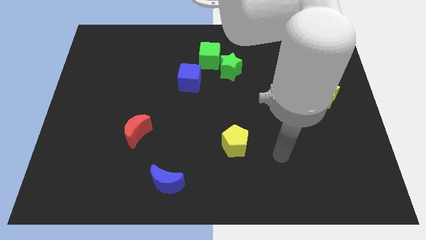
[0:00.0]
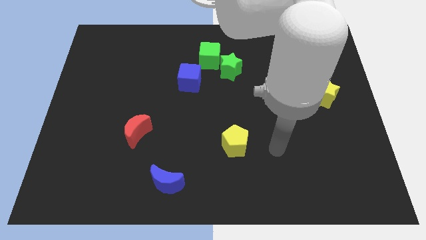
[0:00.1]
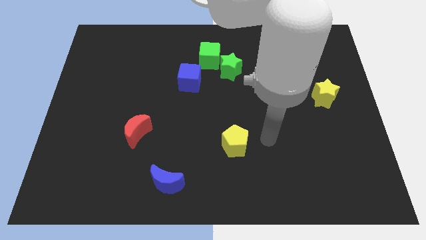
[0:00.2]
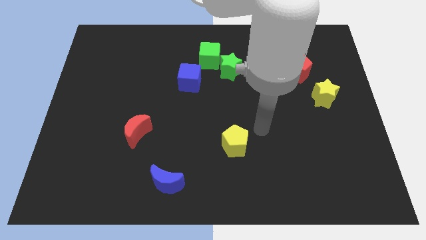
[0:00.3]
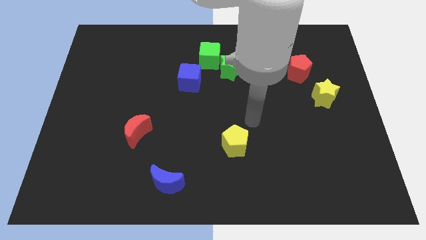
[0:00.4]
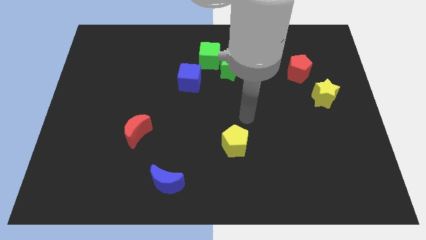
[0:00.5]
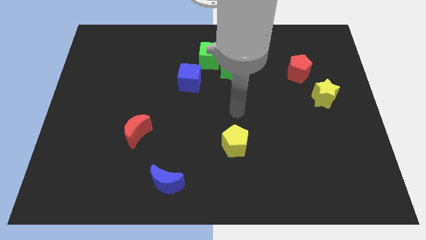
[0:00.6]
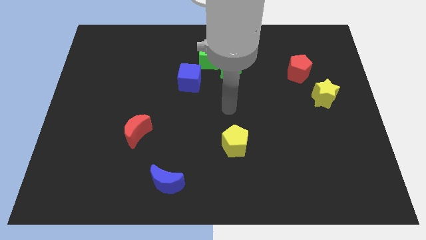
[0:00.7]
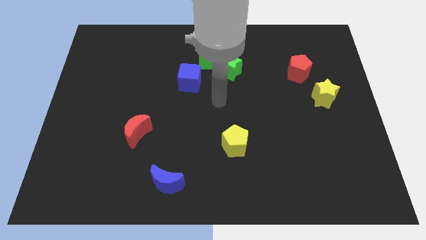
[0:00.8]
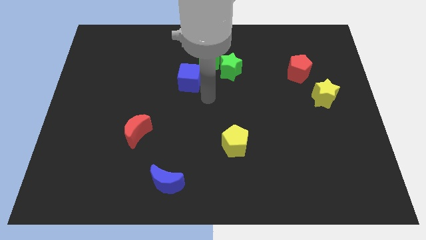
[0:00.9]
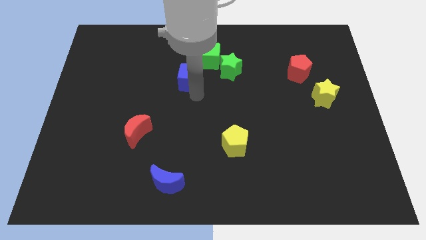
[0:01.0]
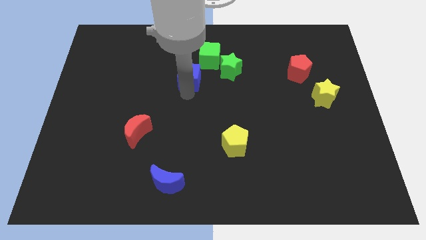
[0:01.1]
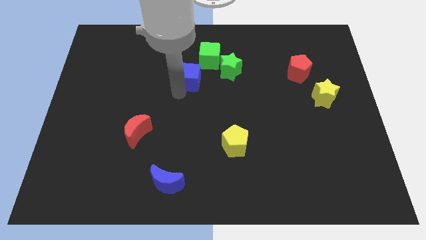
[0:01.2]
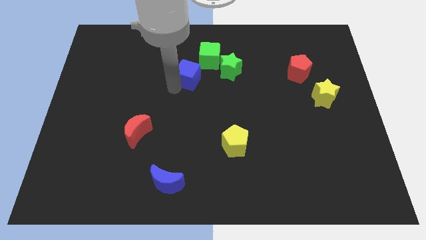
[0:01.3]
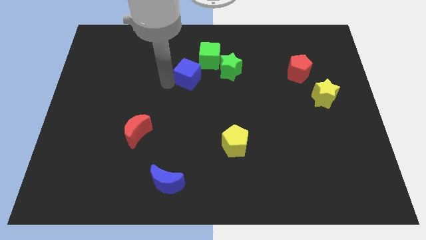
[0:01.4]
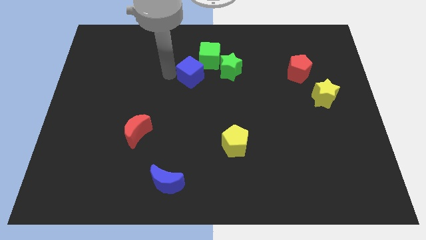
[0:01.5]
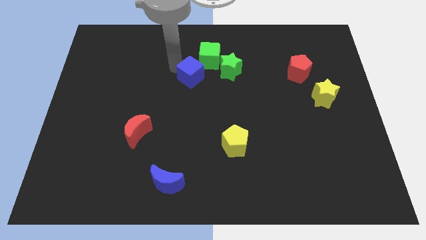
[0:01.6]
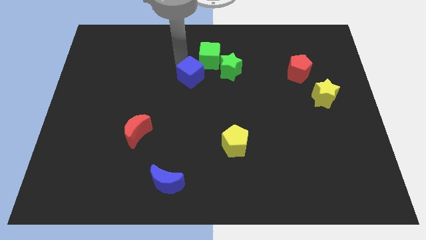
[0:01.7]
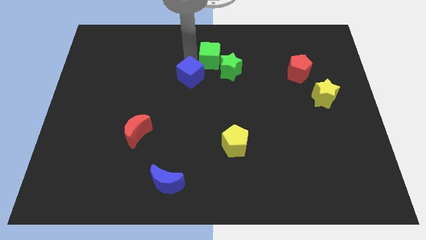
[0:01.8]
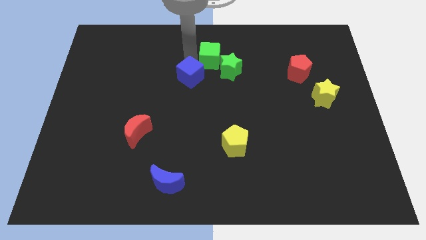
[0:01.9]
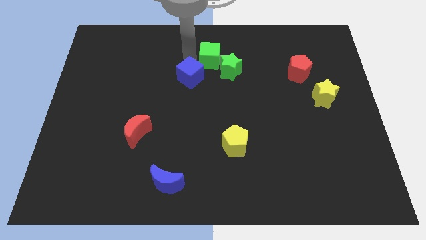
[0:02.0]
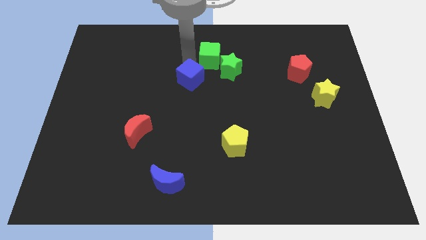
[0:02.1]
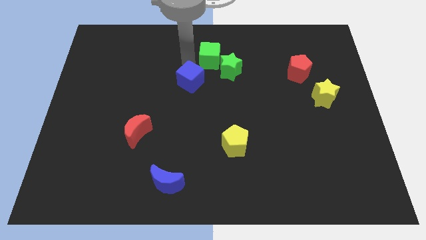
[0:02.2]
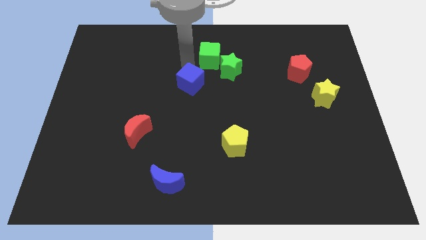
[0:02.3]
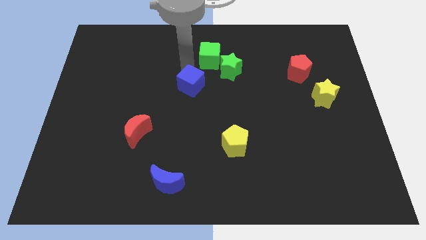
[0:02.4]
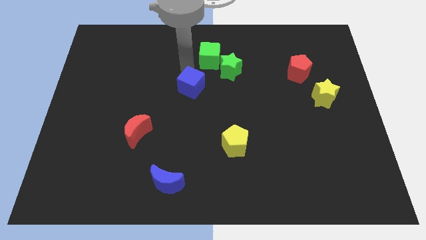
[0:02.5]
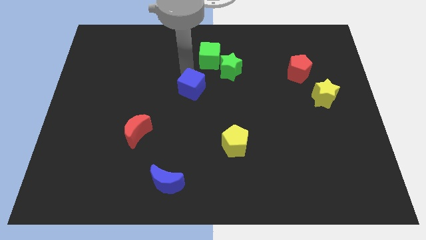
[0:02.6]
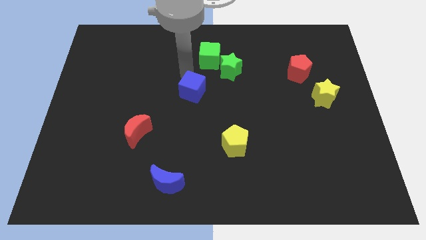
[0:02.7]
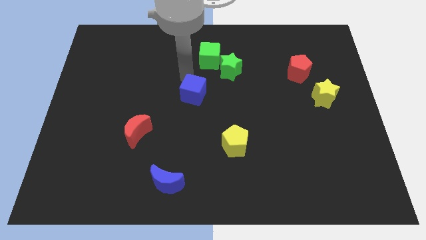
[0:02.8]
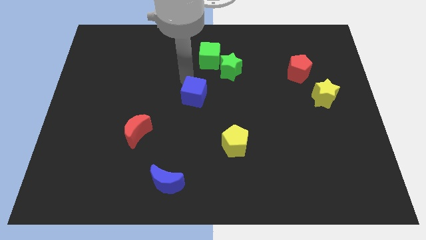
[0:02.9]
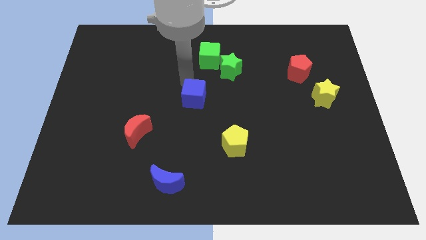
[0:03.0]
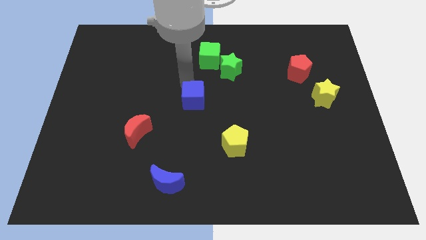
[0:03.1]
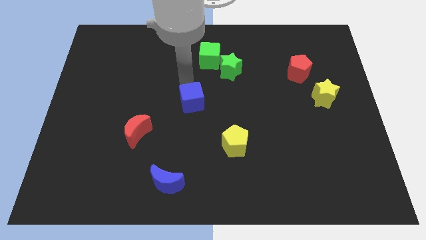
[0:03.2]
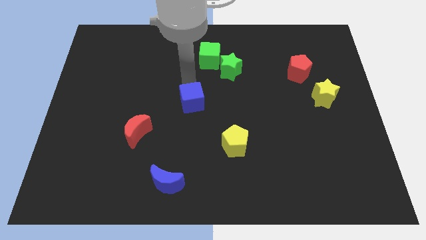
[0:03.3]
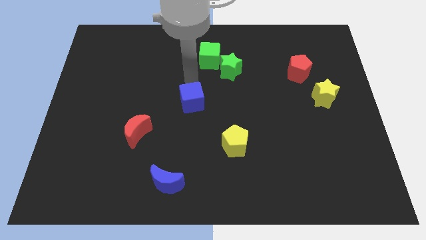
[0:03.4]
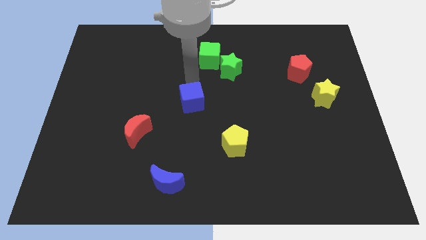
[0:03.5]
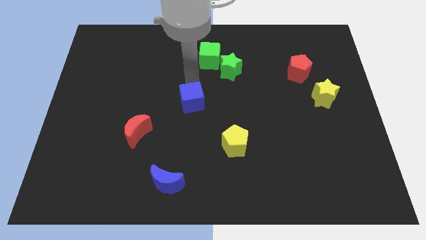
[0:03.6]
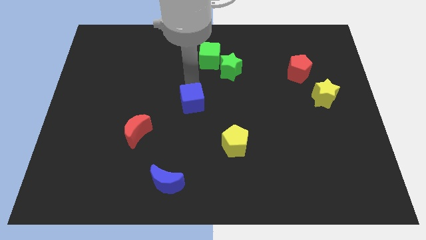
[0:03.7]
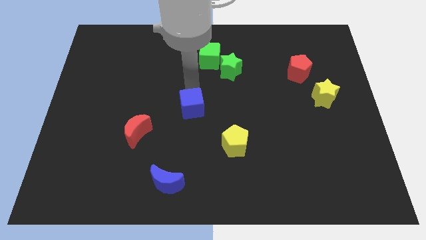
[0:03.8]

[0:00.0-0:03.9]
slightly push the blue cube downwards

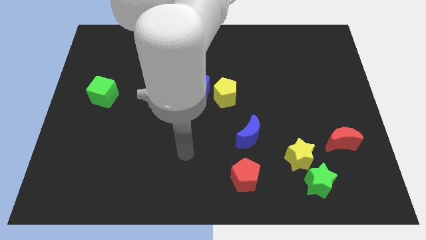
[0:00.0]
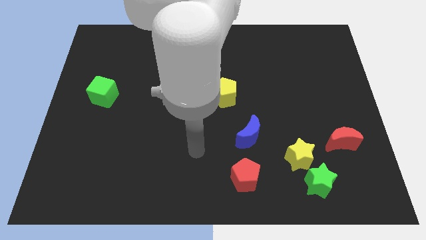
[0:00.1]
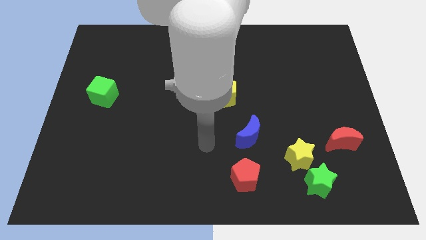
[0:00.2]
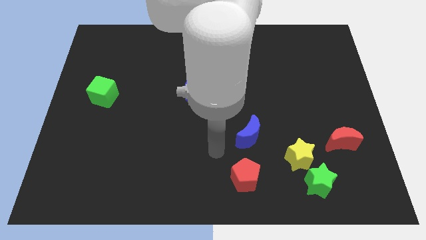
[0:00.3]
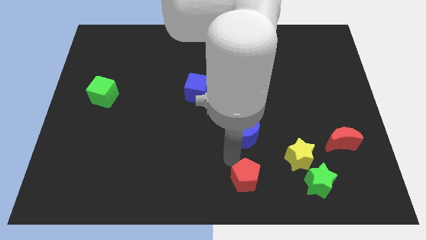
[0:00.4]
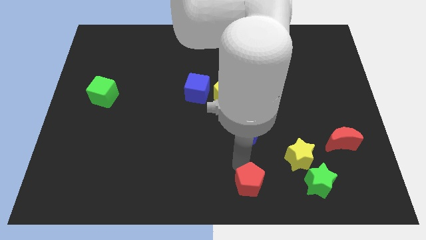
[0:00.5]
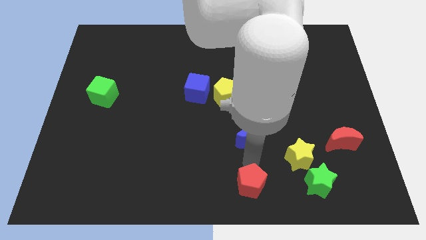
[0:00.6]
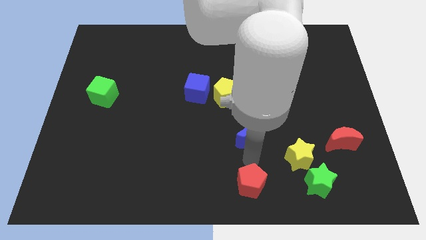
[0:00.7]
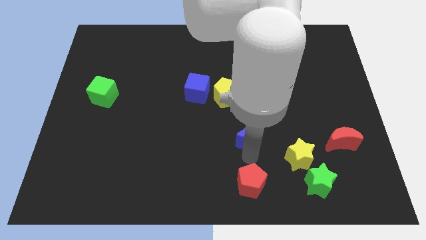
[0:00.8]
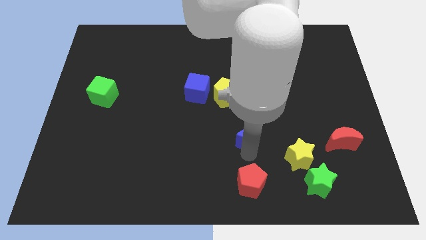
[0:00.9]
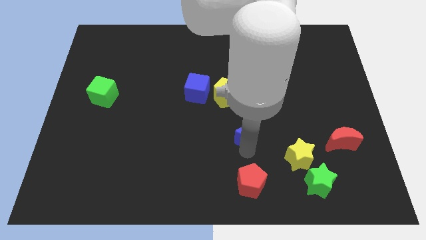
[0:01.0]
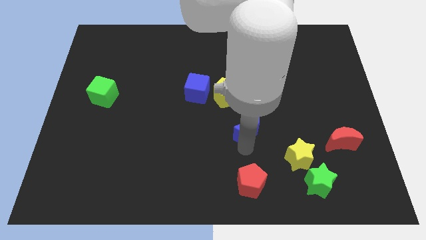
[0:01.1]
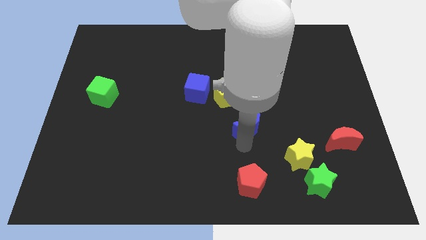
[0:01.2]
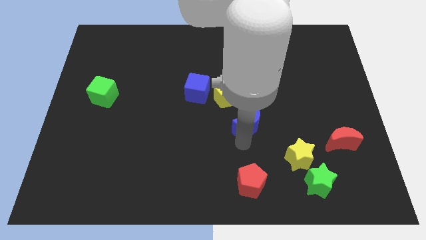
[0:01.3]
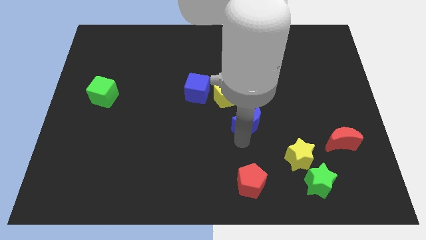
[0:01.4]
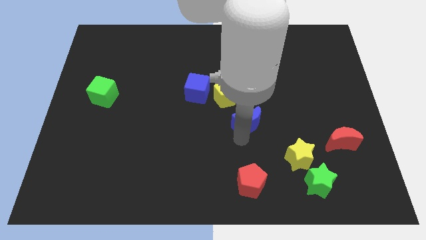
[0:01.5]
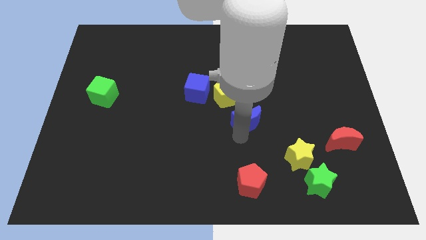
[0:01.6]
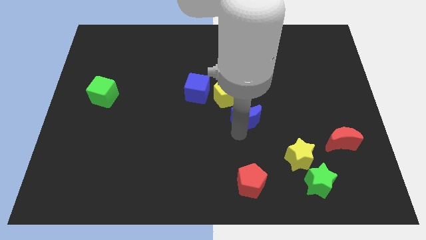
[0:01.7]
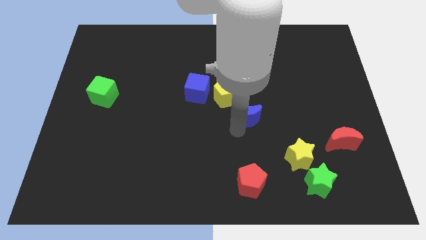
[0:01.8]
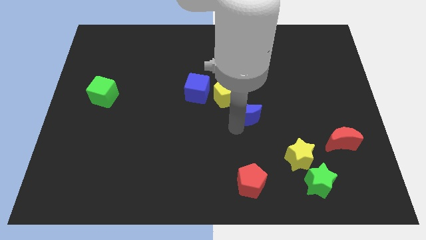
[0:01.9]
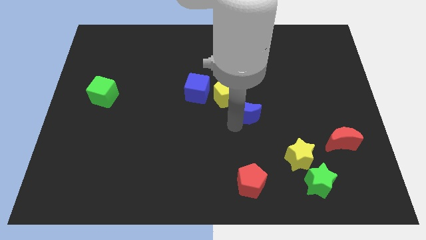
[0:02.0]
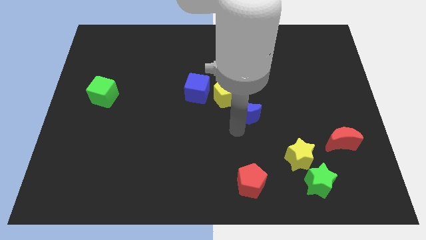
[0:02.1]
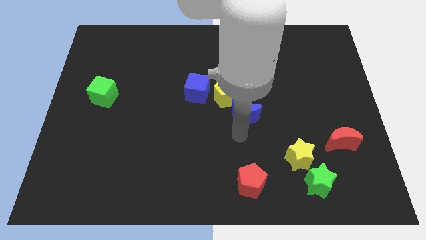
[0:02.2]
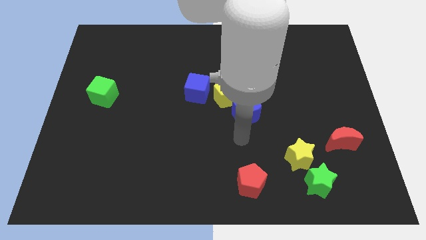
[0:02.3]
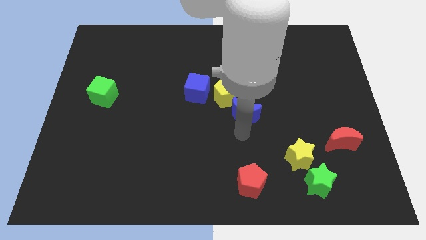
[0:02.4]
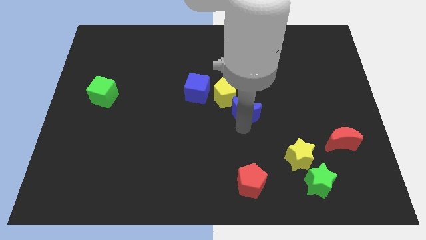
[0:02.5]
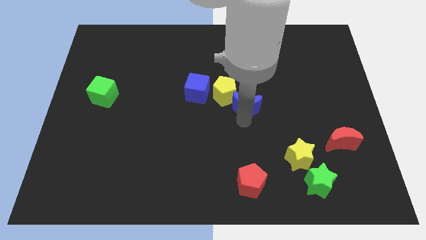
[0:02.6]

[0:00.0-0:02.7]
slide the blue moon up a bit

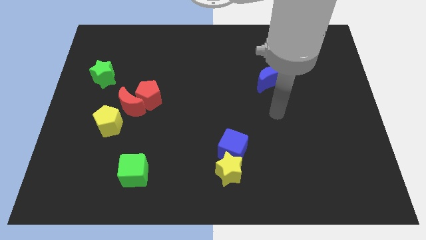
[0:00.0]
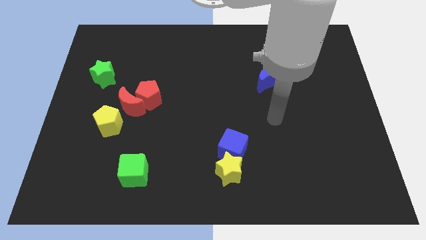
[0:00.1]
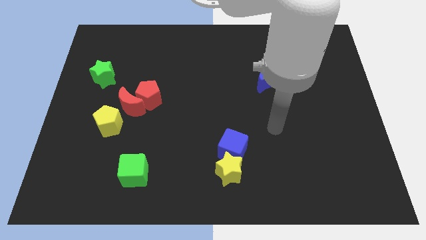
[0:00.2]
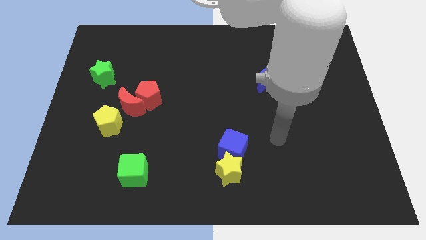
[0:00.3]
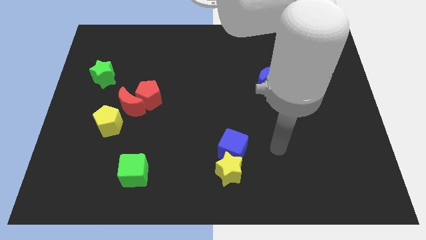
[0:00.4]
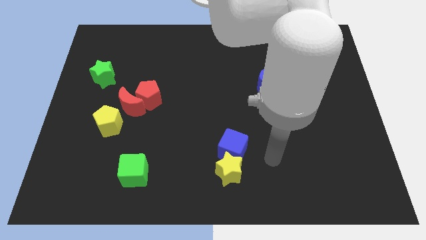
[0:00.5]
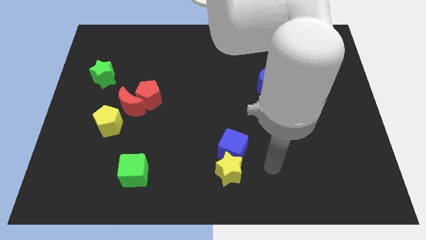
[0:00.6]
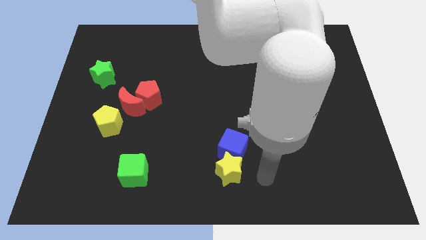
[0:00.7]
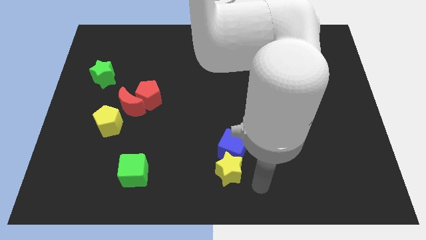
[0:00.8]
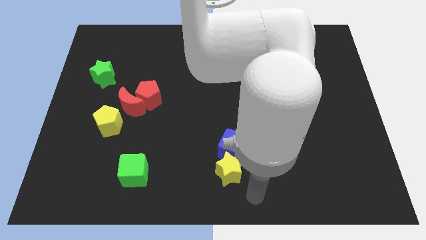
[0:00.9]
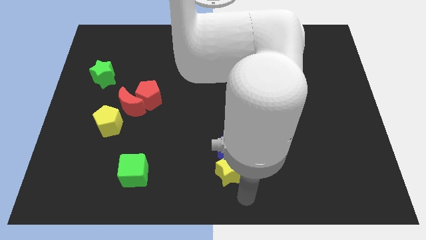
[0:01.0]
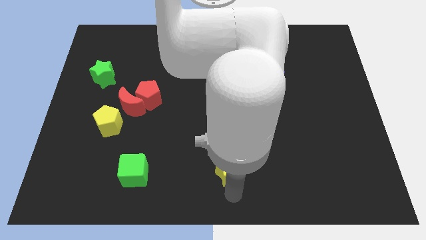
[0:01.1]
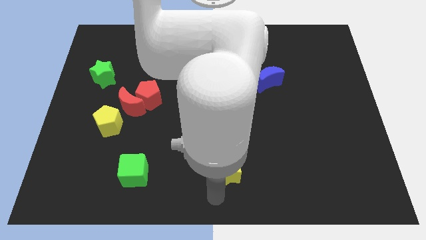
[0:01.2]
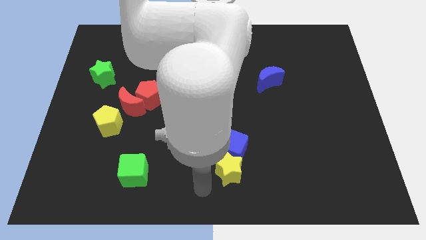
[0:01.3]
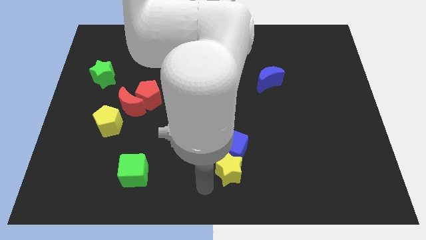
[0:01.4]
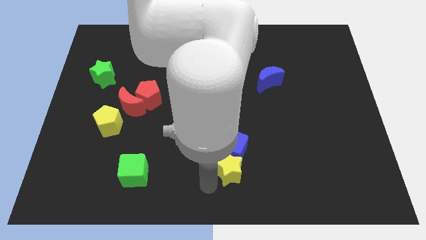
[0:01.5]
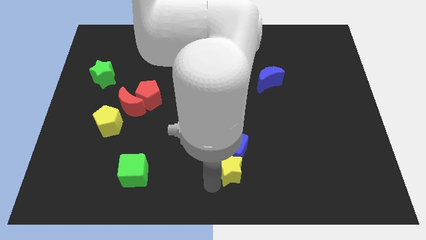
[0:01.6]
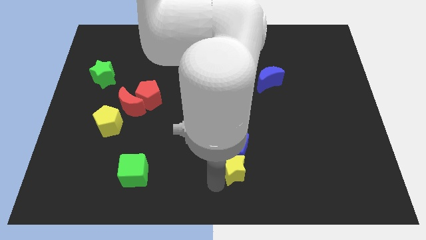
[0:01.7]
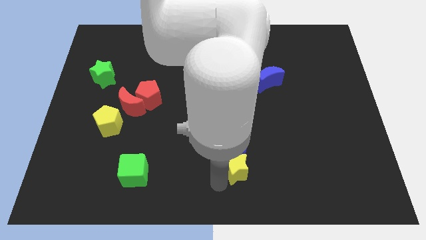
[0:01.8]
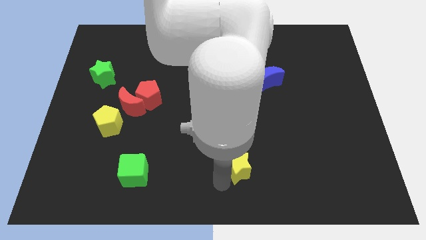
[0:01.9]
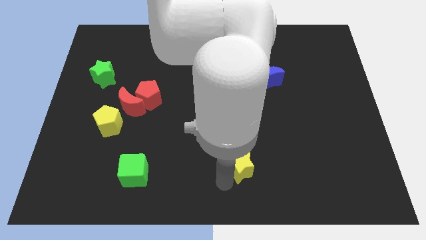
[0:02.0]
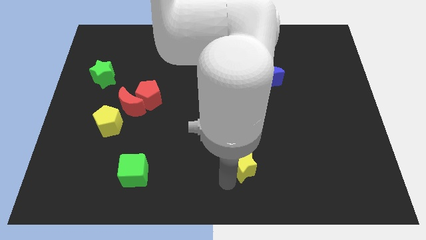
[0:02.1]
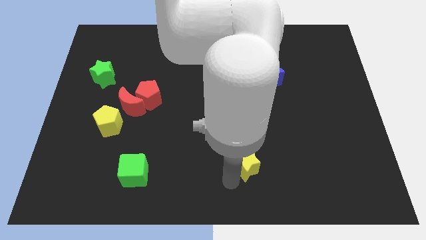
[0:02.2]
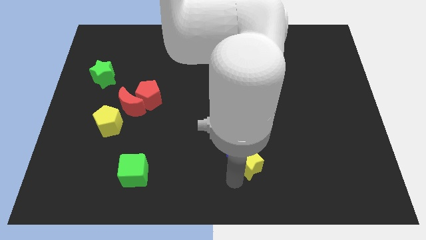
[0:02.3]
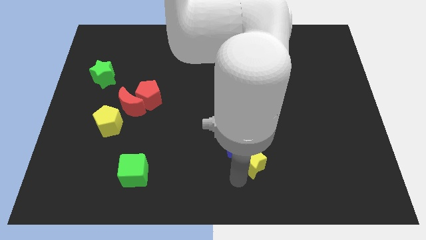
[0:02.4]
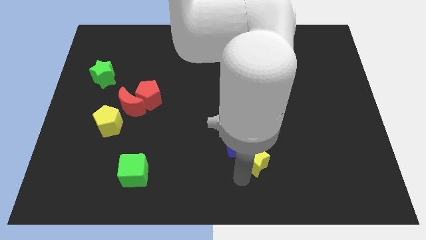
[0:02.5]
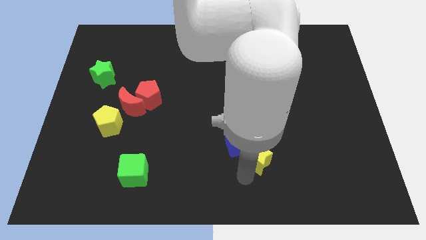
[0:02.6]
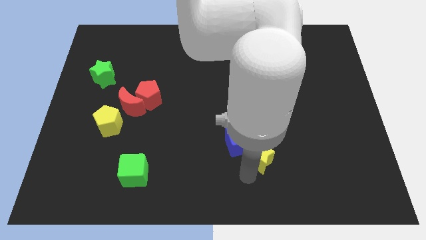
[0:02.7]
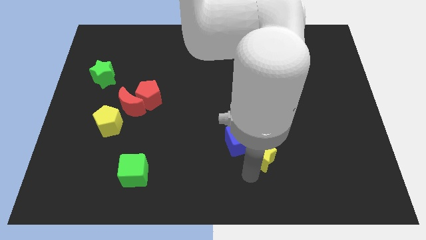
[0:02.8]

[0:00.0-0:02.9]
slightly move the yellow star up and right
